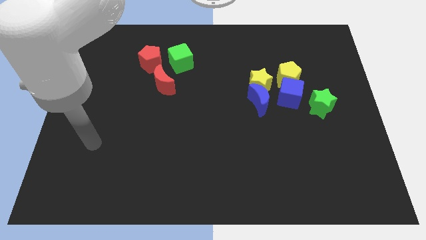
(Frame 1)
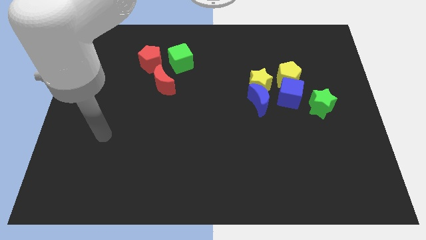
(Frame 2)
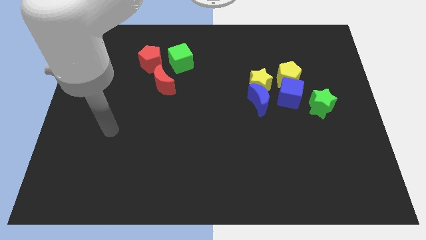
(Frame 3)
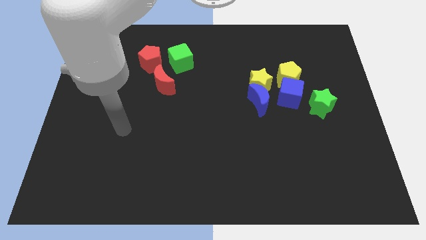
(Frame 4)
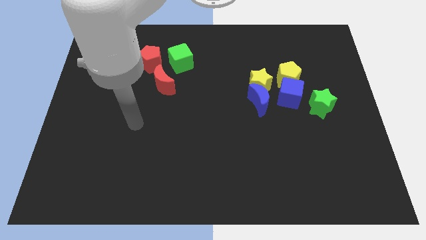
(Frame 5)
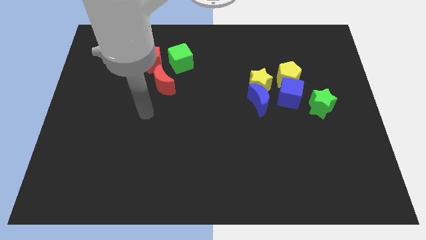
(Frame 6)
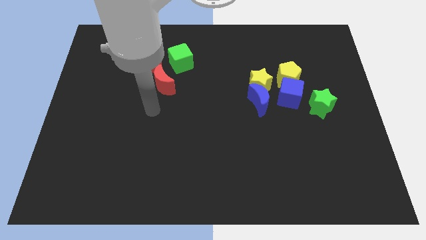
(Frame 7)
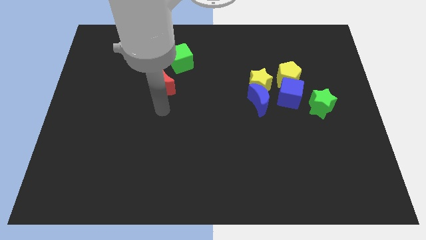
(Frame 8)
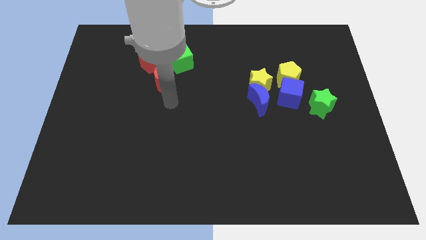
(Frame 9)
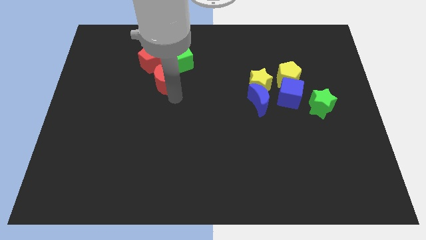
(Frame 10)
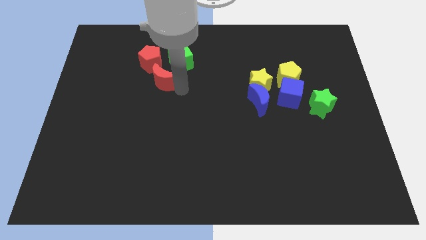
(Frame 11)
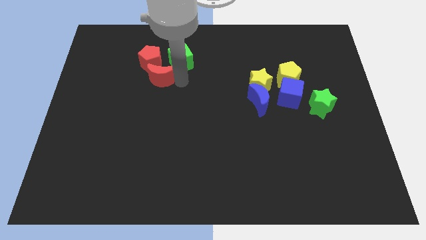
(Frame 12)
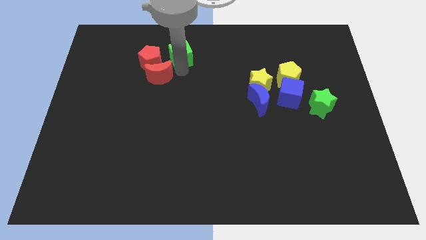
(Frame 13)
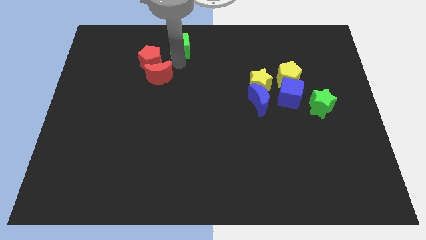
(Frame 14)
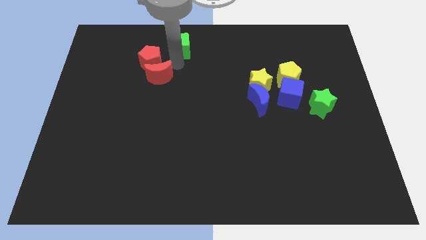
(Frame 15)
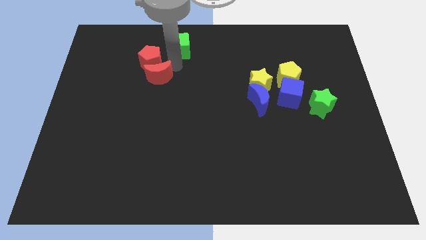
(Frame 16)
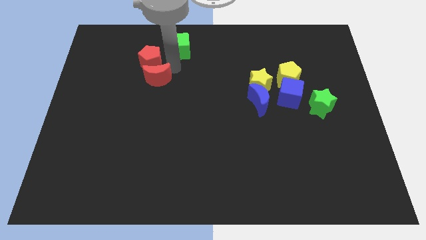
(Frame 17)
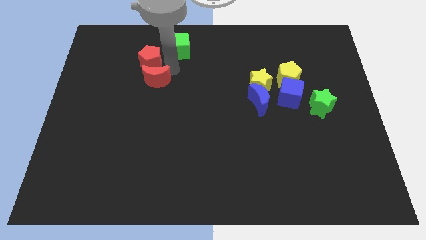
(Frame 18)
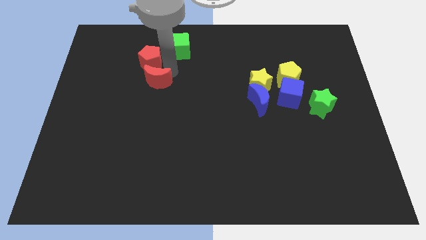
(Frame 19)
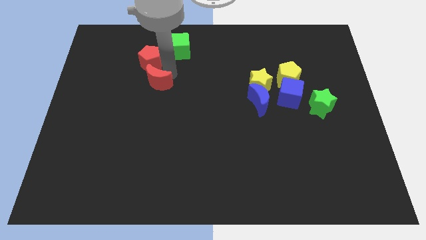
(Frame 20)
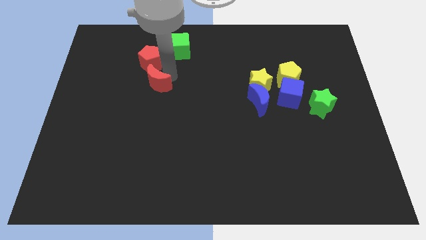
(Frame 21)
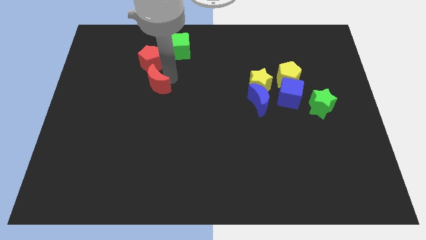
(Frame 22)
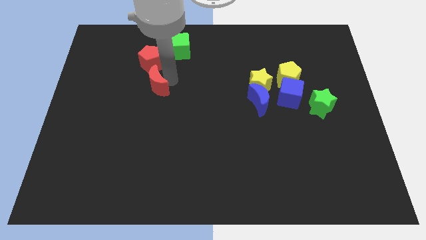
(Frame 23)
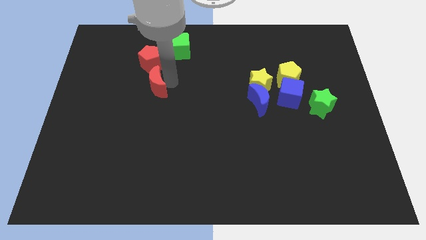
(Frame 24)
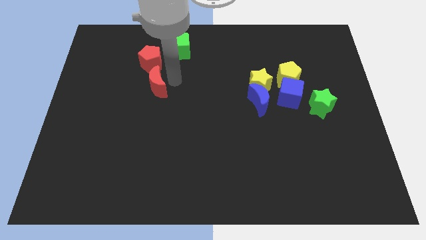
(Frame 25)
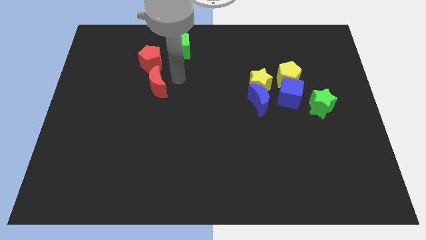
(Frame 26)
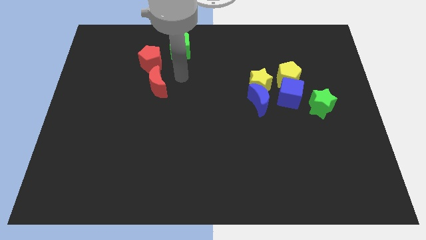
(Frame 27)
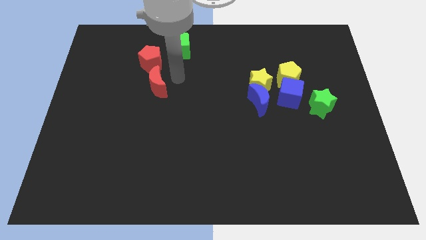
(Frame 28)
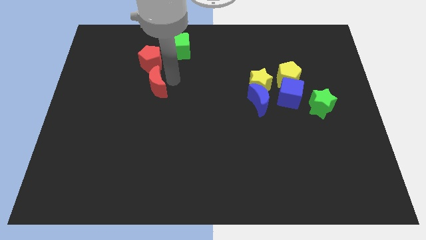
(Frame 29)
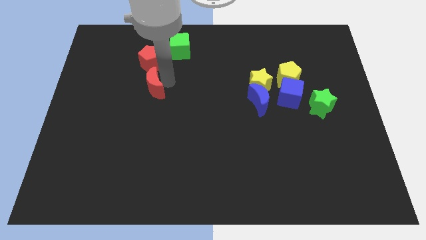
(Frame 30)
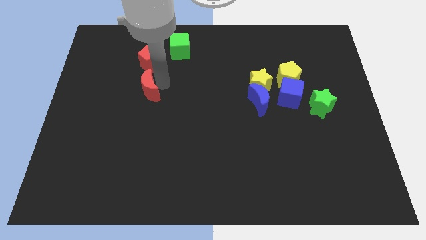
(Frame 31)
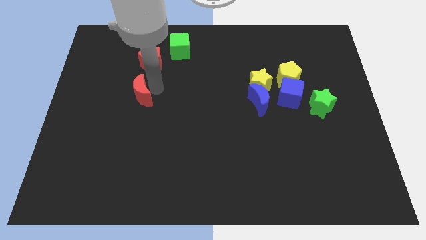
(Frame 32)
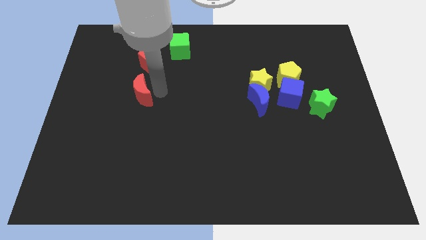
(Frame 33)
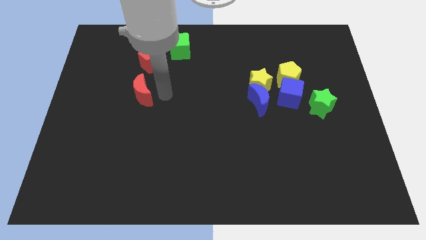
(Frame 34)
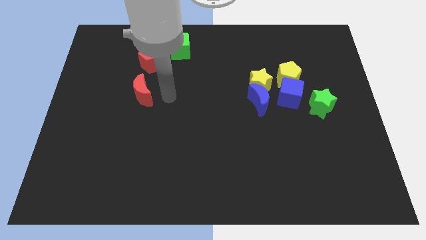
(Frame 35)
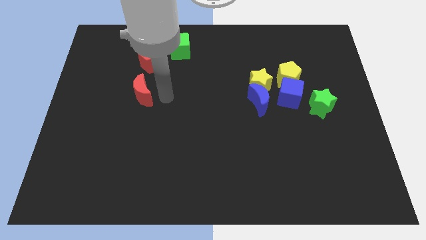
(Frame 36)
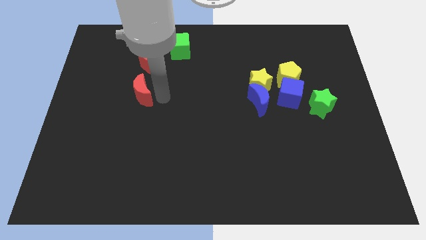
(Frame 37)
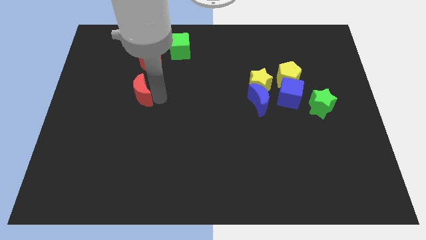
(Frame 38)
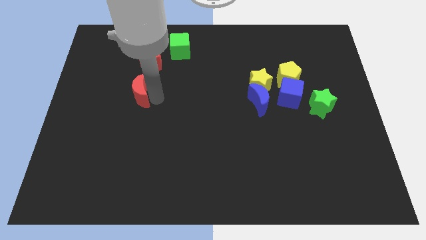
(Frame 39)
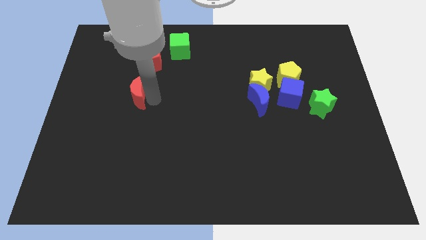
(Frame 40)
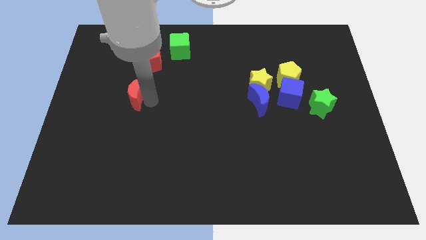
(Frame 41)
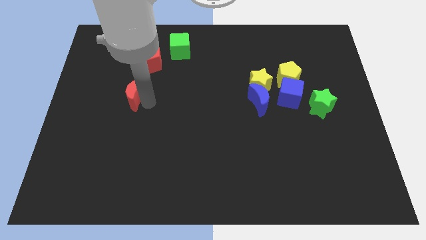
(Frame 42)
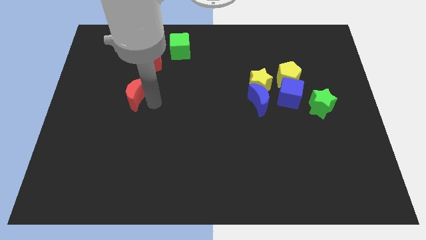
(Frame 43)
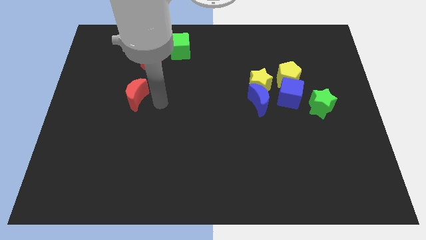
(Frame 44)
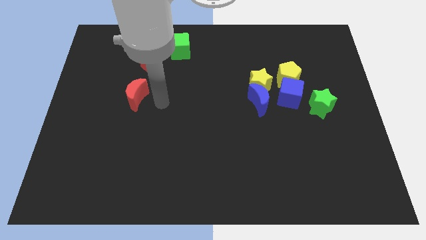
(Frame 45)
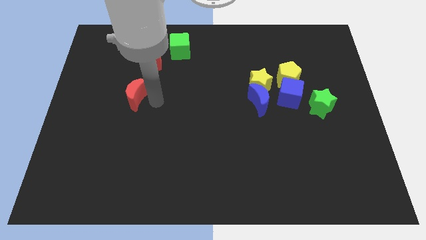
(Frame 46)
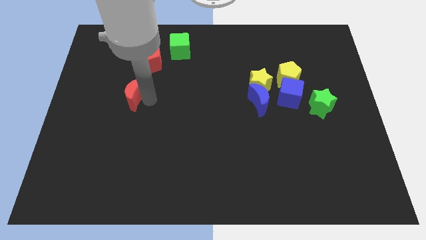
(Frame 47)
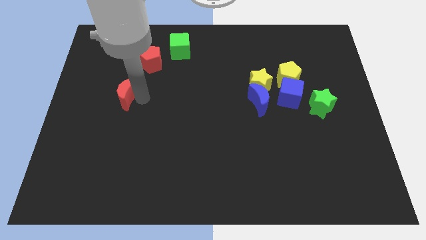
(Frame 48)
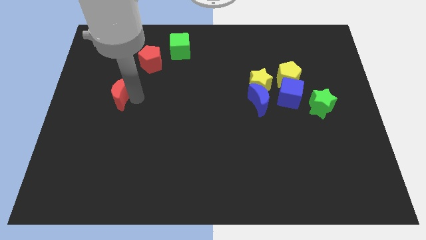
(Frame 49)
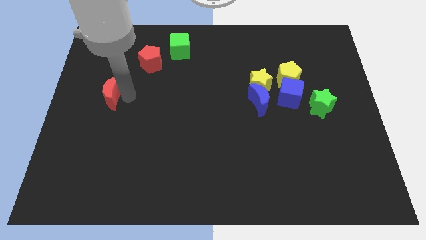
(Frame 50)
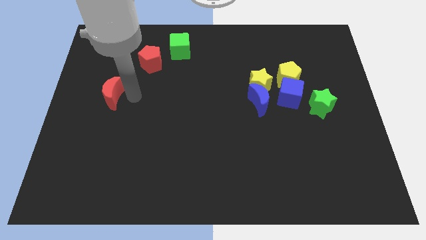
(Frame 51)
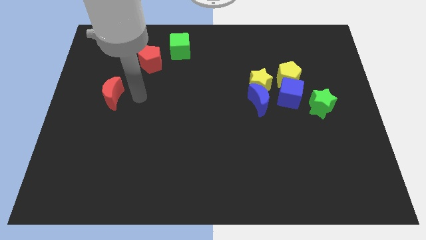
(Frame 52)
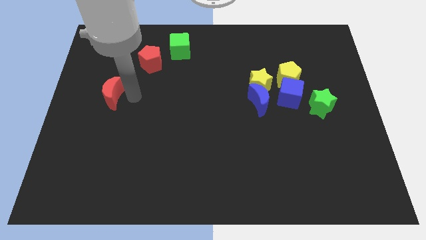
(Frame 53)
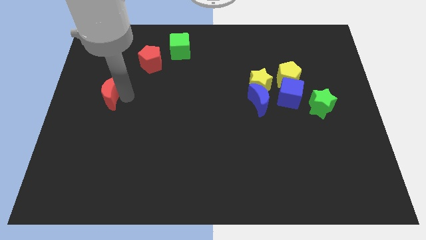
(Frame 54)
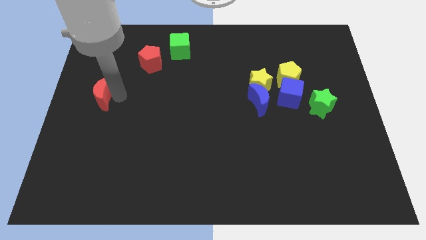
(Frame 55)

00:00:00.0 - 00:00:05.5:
move the red moon to the center left
